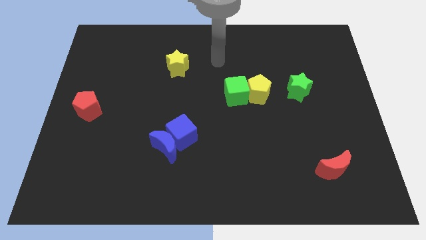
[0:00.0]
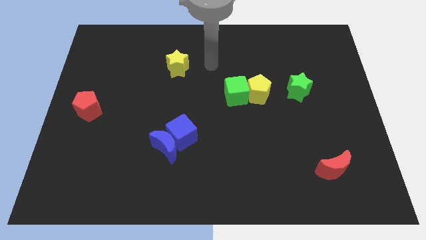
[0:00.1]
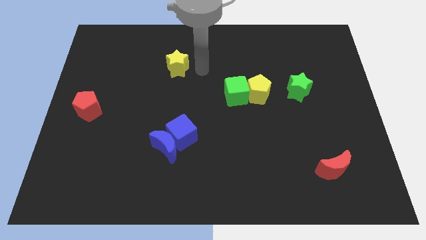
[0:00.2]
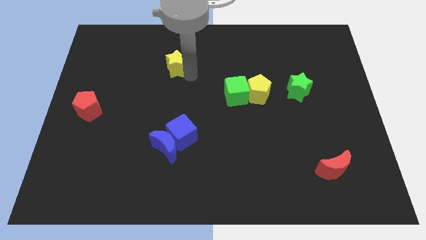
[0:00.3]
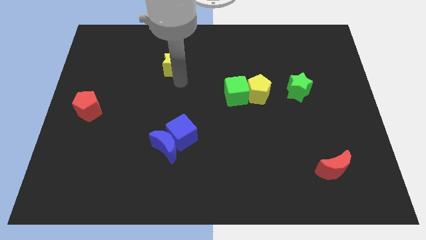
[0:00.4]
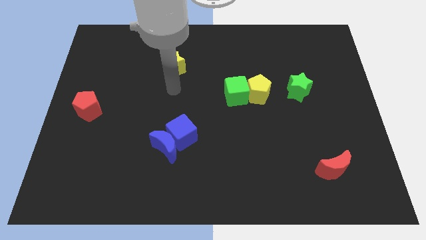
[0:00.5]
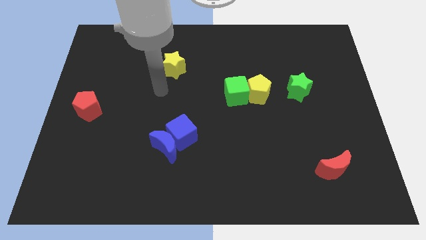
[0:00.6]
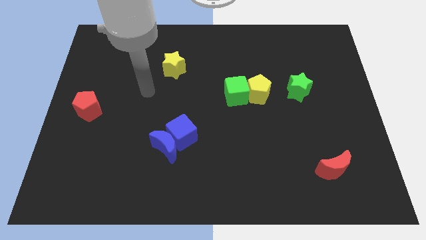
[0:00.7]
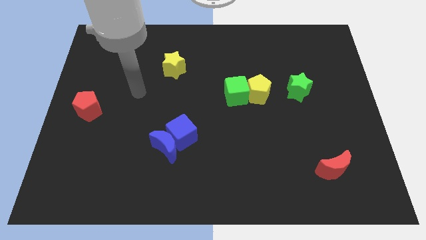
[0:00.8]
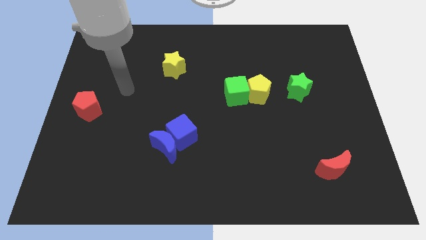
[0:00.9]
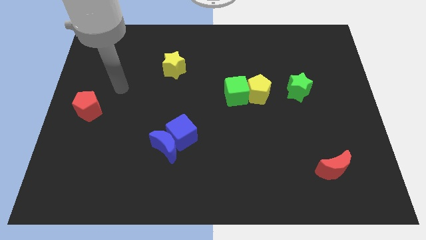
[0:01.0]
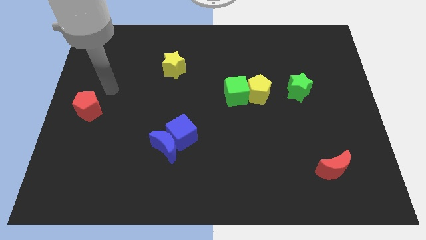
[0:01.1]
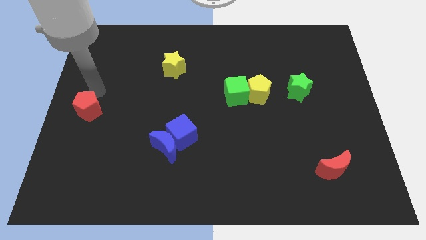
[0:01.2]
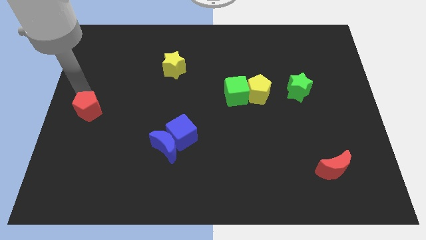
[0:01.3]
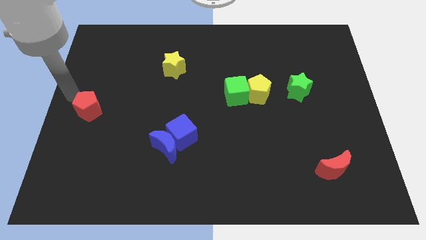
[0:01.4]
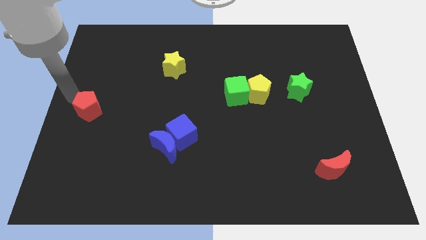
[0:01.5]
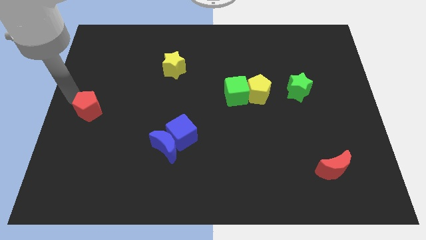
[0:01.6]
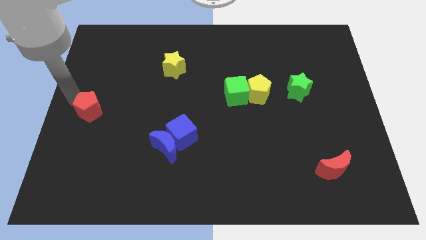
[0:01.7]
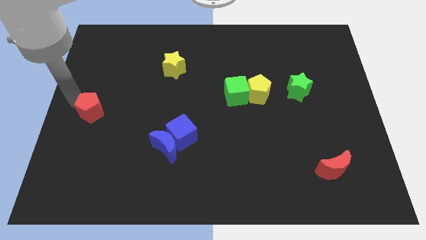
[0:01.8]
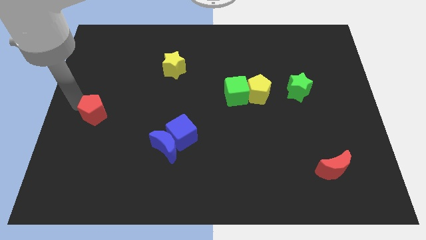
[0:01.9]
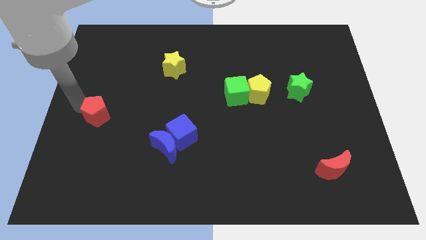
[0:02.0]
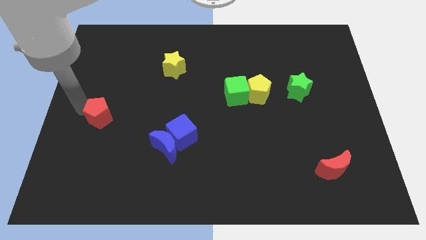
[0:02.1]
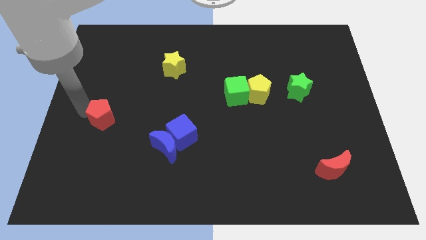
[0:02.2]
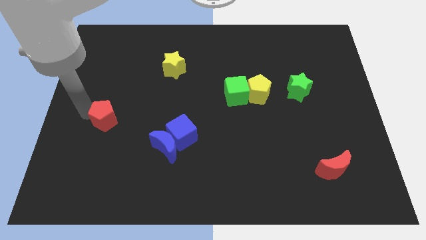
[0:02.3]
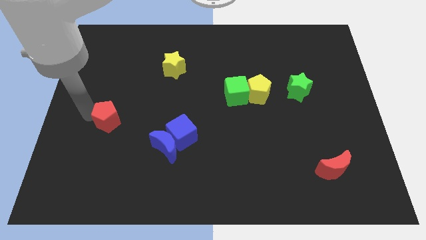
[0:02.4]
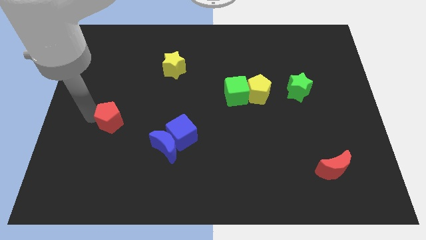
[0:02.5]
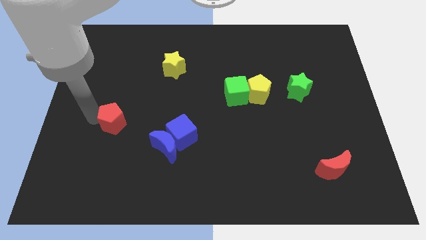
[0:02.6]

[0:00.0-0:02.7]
slide the red pentagon downwards and then to the right a little

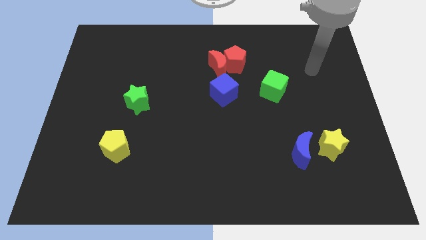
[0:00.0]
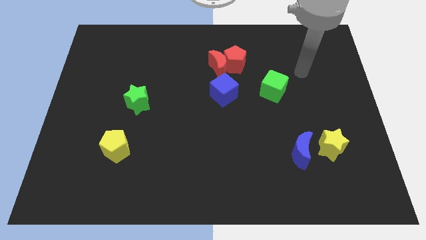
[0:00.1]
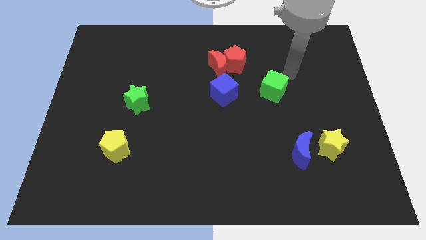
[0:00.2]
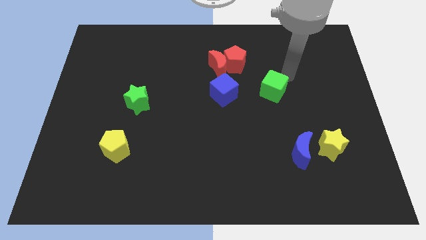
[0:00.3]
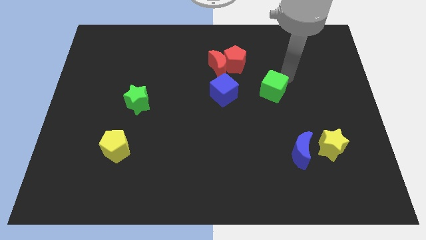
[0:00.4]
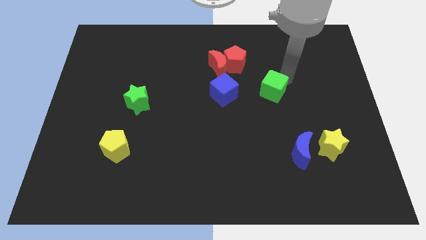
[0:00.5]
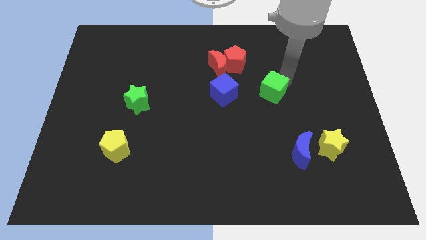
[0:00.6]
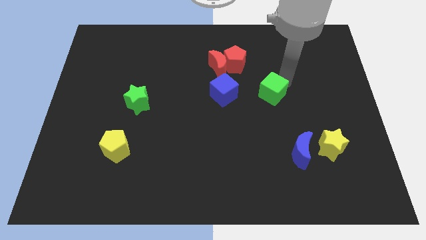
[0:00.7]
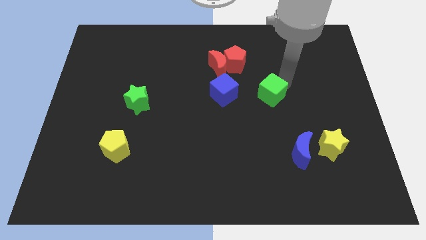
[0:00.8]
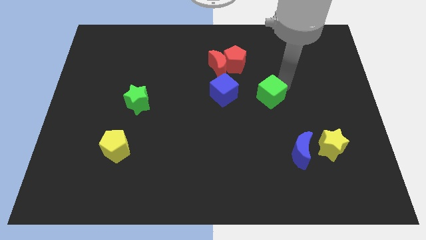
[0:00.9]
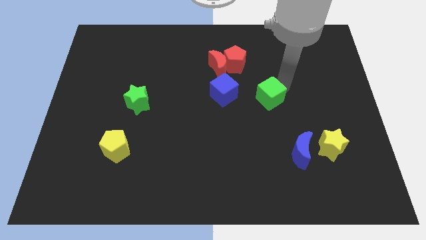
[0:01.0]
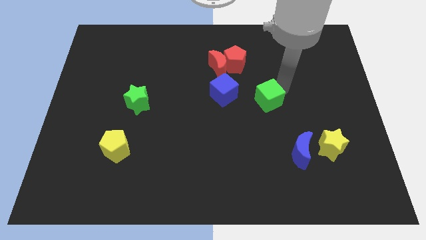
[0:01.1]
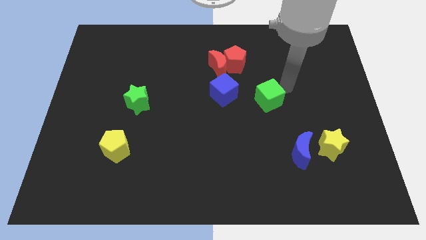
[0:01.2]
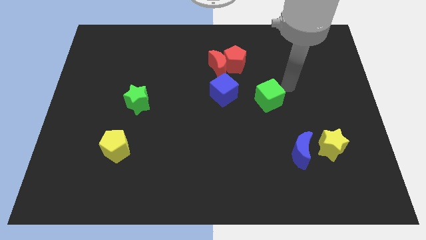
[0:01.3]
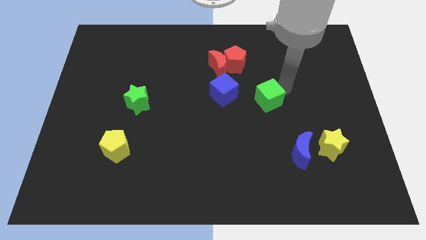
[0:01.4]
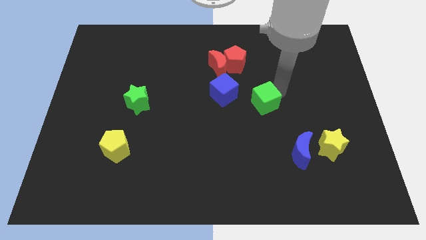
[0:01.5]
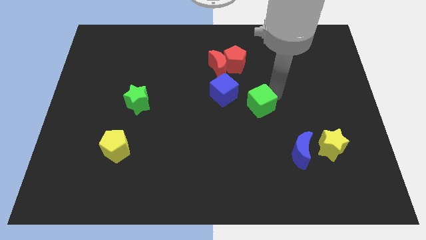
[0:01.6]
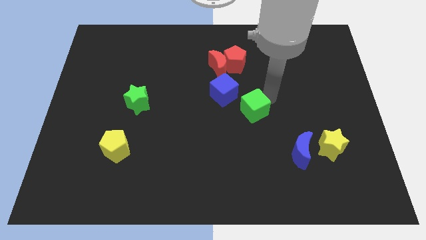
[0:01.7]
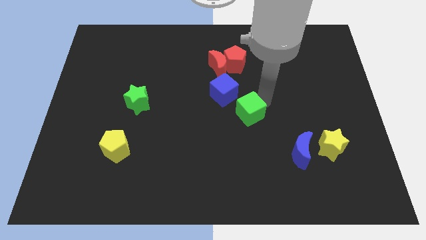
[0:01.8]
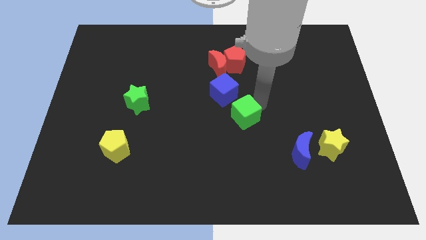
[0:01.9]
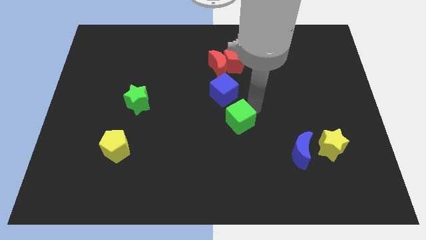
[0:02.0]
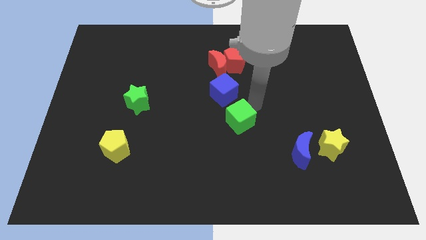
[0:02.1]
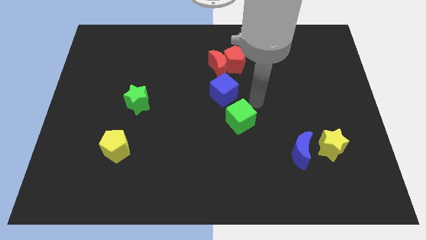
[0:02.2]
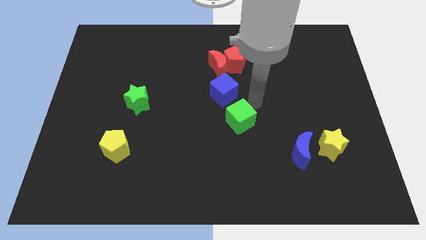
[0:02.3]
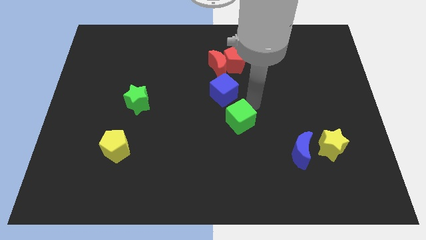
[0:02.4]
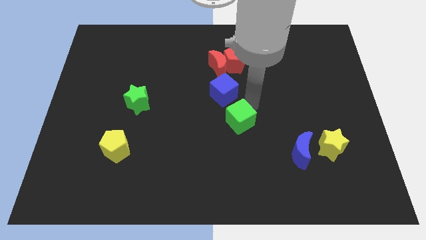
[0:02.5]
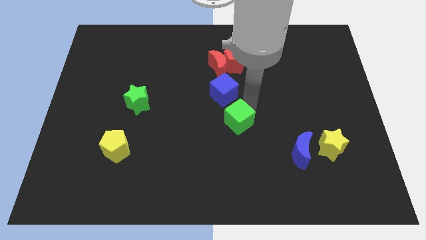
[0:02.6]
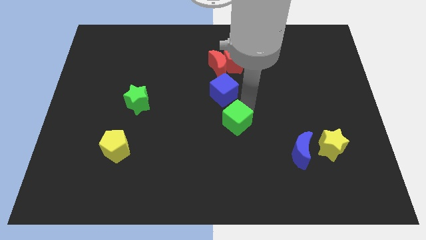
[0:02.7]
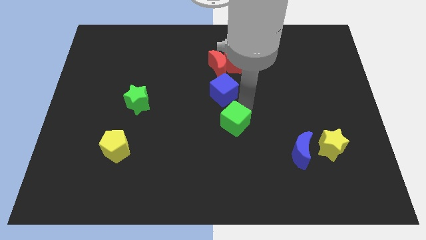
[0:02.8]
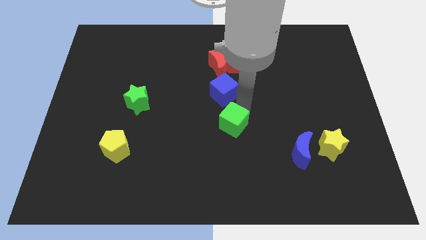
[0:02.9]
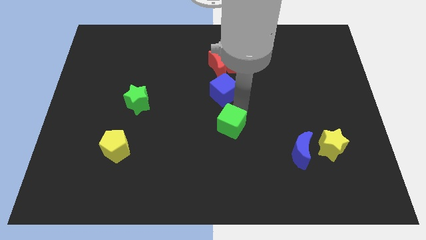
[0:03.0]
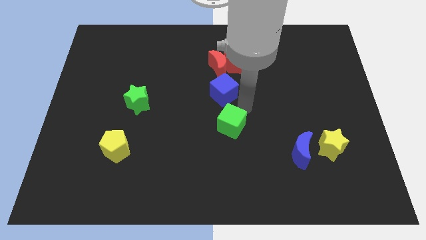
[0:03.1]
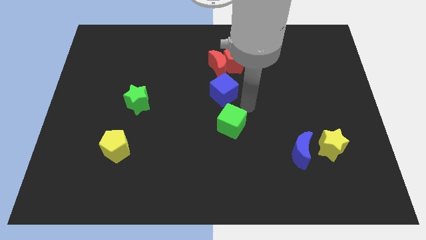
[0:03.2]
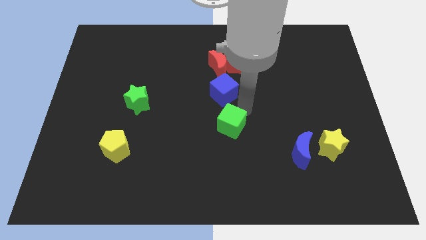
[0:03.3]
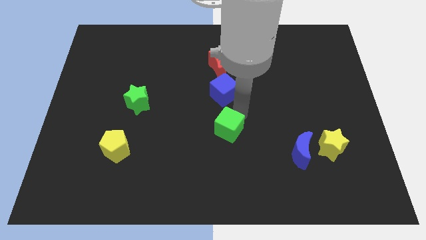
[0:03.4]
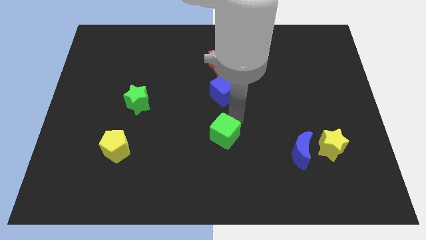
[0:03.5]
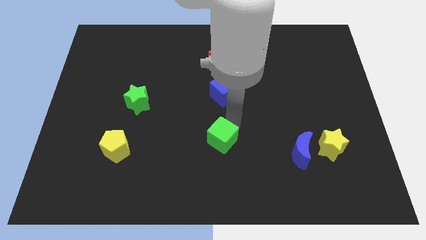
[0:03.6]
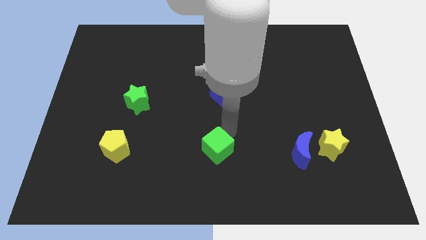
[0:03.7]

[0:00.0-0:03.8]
slide the green cube down and left

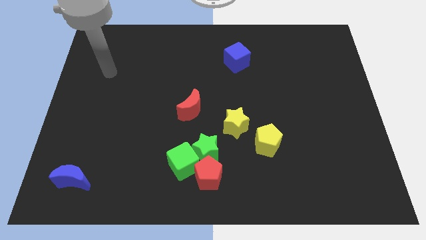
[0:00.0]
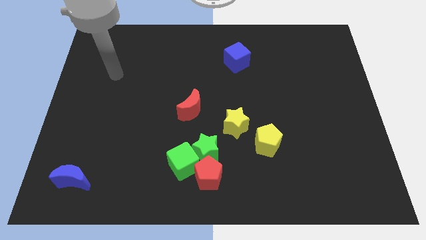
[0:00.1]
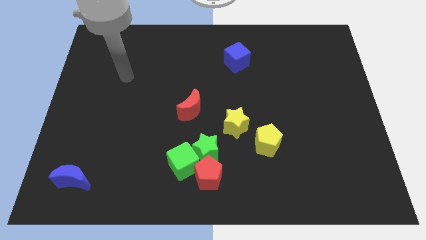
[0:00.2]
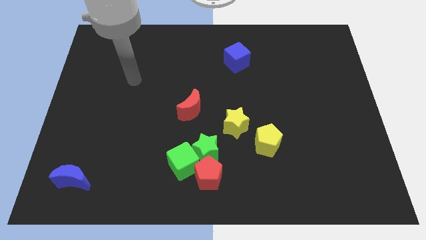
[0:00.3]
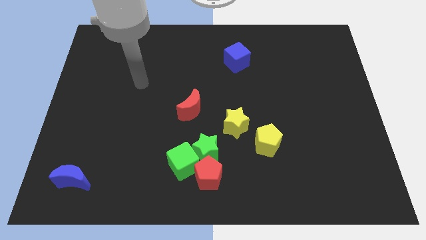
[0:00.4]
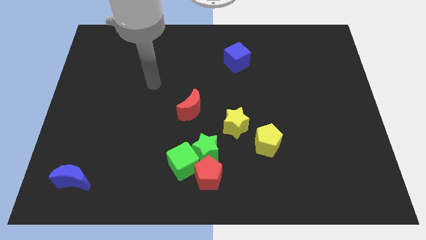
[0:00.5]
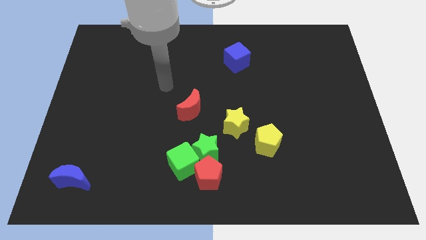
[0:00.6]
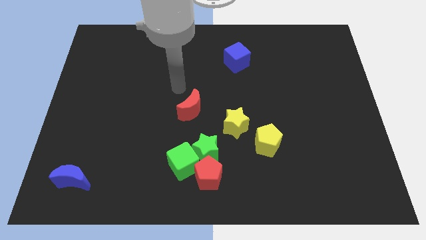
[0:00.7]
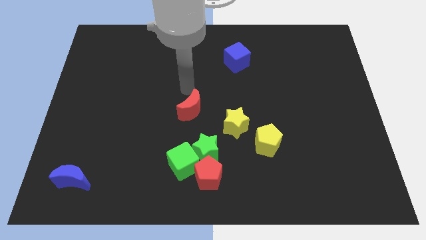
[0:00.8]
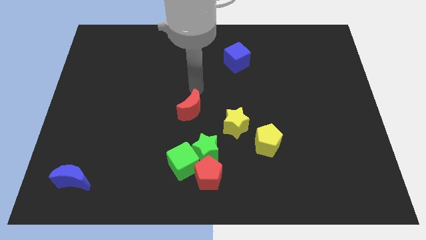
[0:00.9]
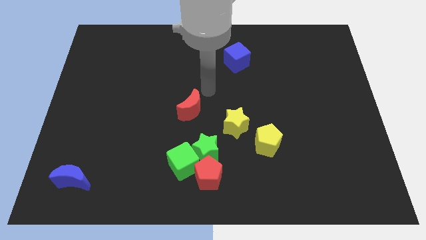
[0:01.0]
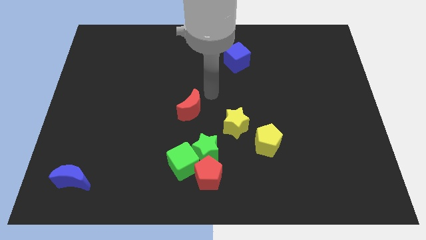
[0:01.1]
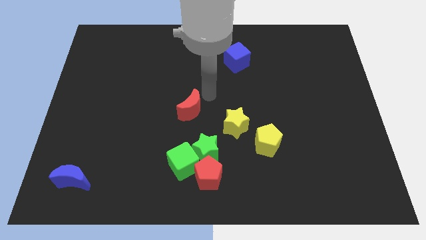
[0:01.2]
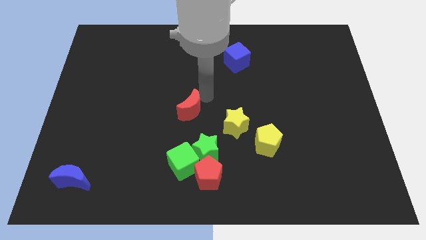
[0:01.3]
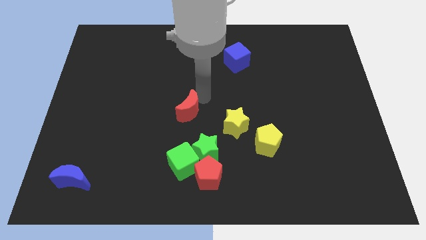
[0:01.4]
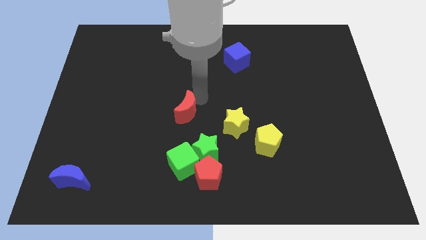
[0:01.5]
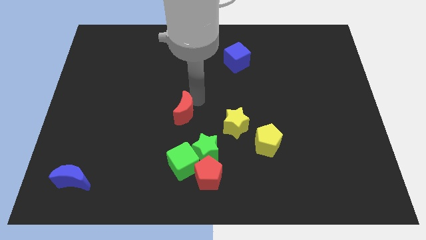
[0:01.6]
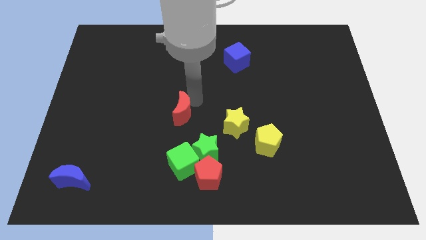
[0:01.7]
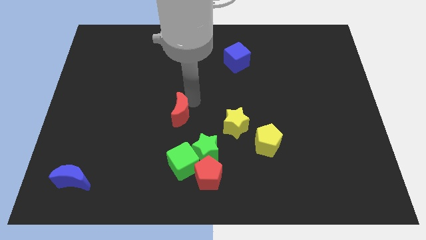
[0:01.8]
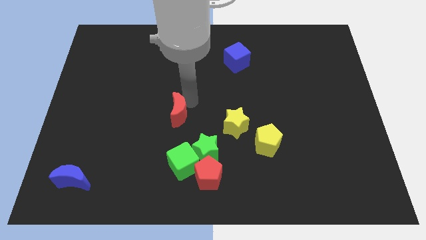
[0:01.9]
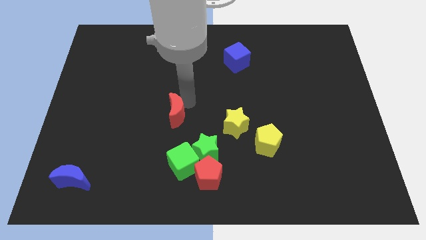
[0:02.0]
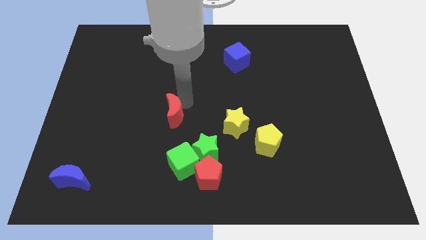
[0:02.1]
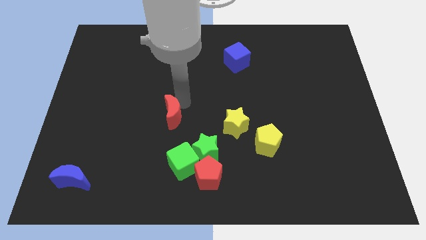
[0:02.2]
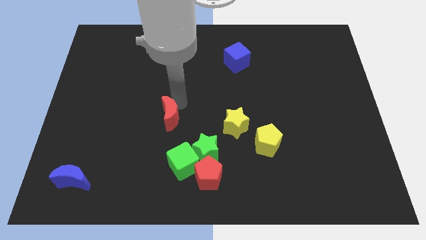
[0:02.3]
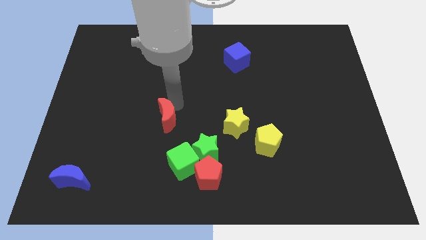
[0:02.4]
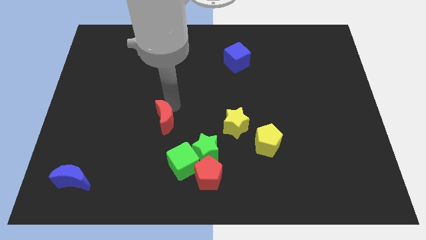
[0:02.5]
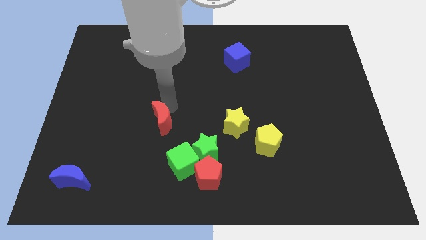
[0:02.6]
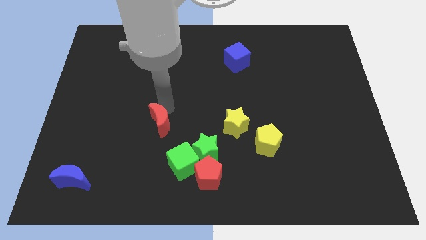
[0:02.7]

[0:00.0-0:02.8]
slightly slide the red moon down and to the left
